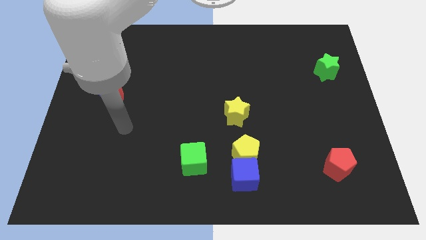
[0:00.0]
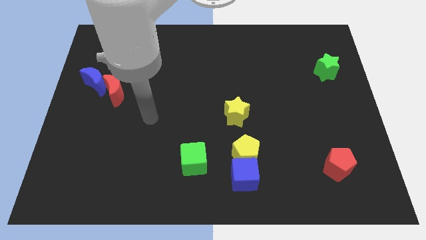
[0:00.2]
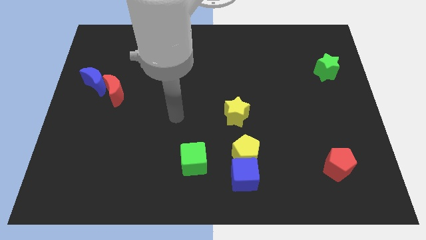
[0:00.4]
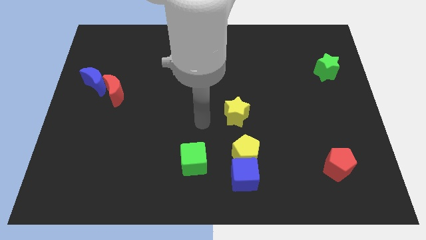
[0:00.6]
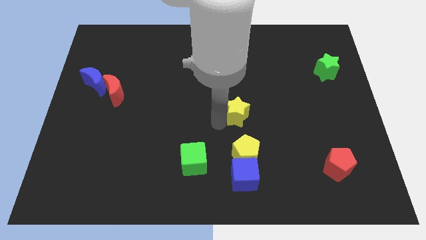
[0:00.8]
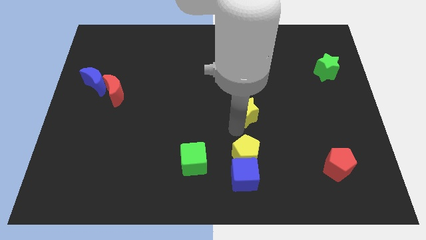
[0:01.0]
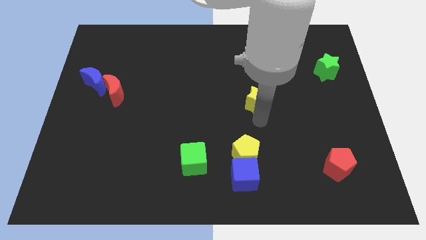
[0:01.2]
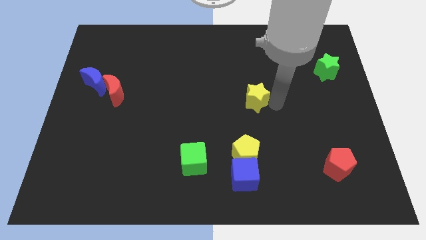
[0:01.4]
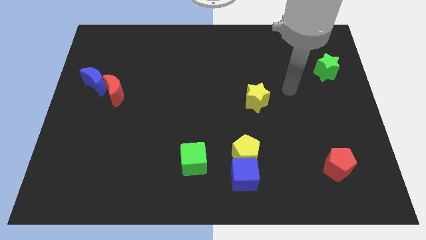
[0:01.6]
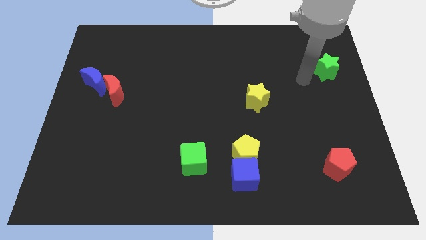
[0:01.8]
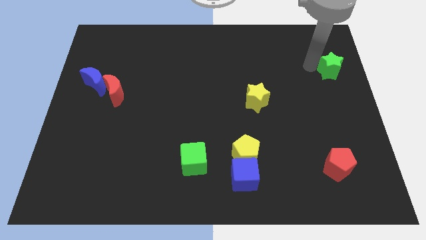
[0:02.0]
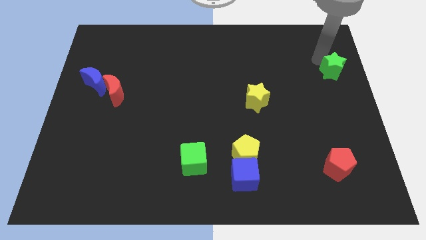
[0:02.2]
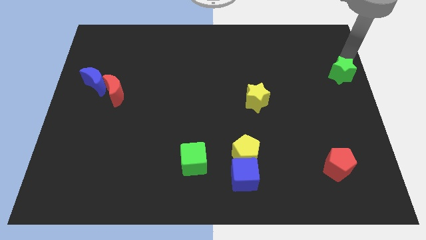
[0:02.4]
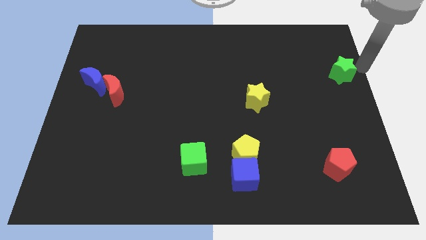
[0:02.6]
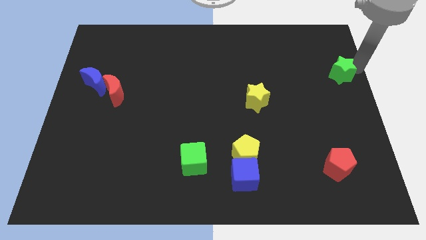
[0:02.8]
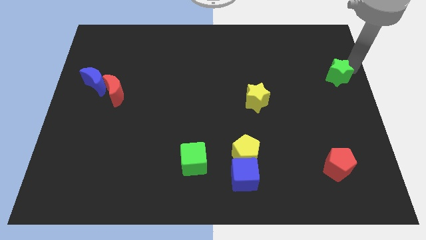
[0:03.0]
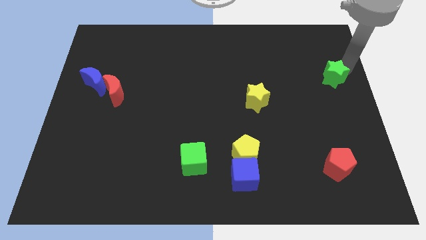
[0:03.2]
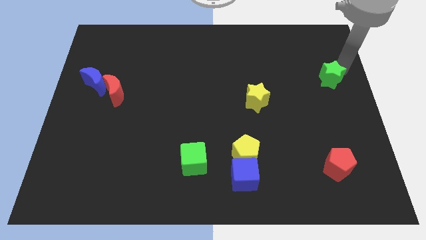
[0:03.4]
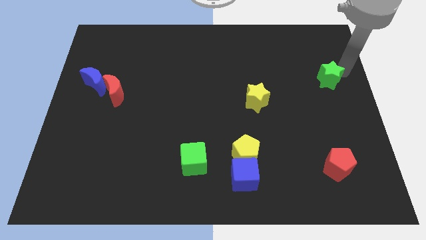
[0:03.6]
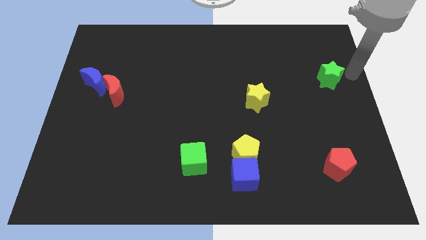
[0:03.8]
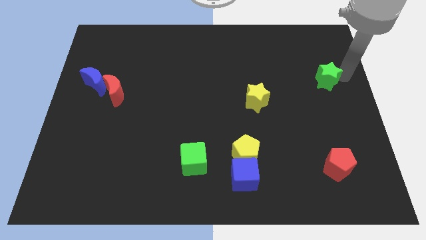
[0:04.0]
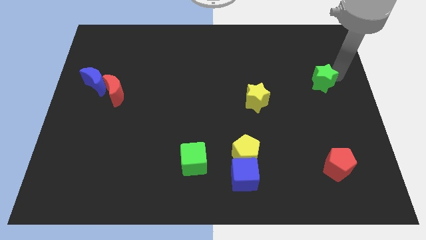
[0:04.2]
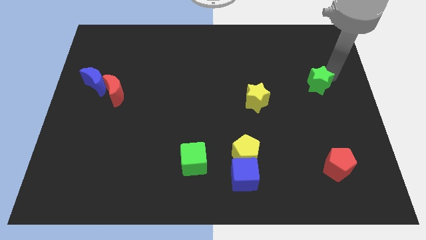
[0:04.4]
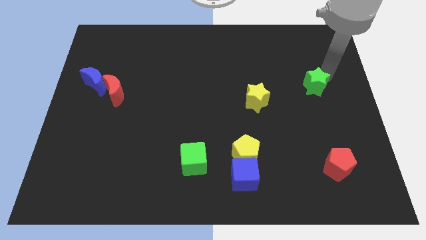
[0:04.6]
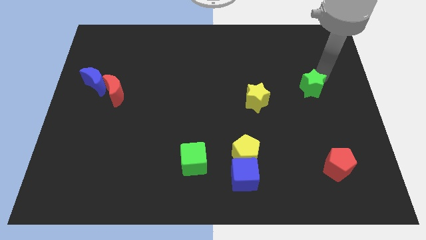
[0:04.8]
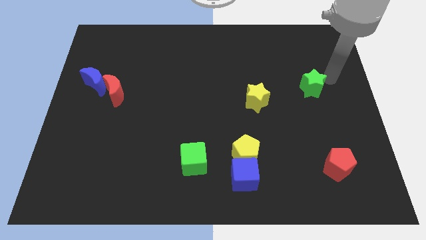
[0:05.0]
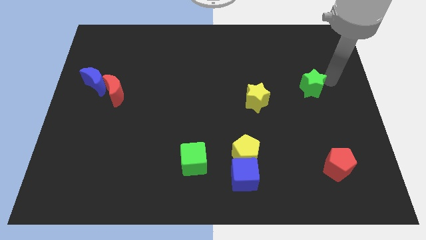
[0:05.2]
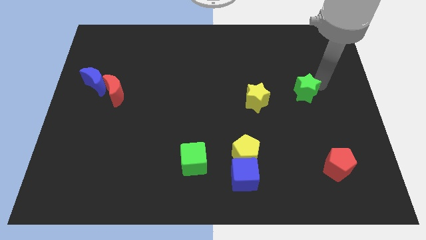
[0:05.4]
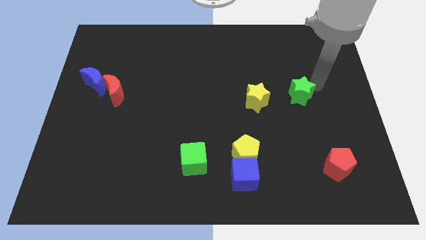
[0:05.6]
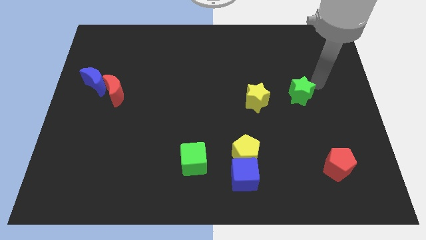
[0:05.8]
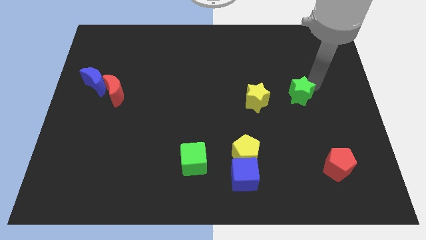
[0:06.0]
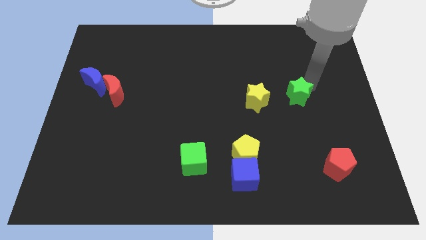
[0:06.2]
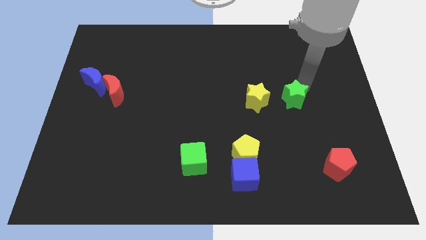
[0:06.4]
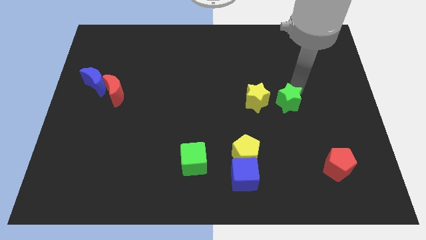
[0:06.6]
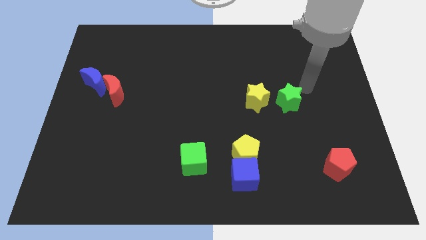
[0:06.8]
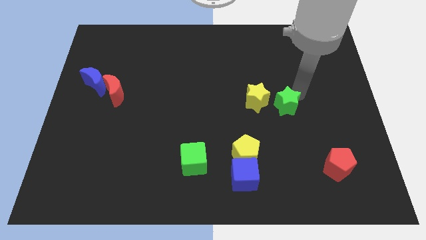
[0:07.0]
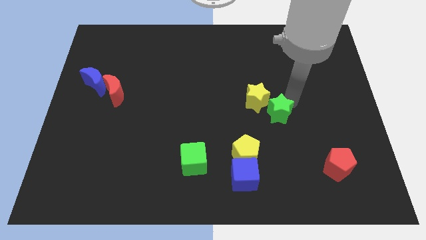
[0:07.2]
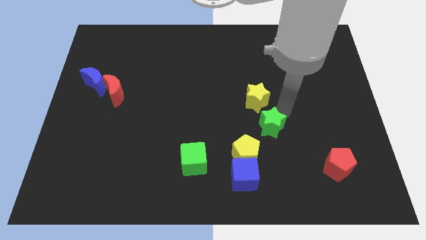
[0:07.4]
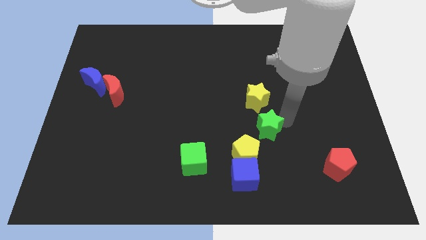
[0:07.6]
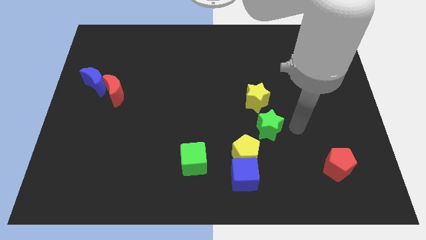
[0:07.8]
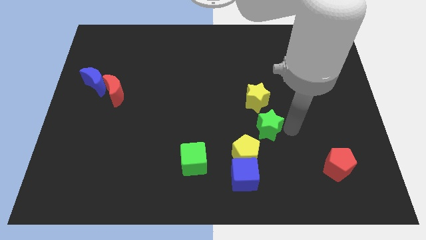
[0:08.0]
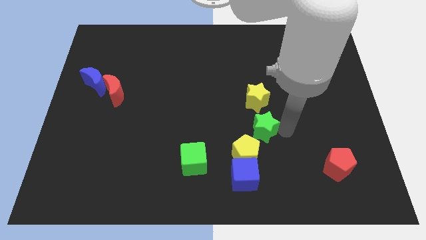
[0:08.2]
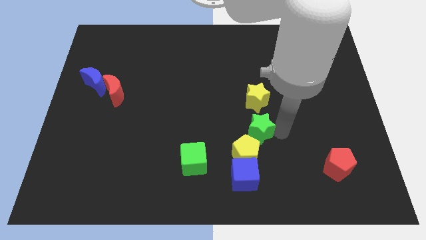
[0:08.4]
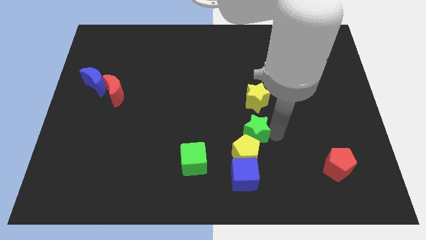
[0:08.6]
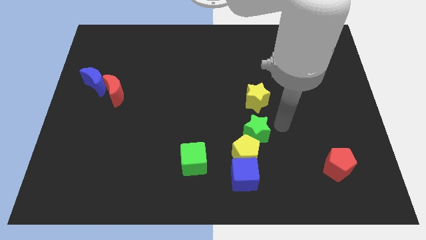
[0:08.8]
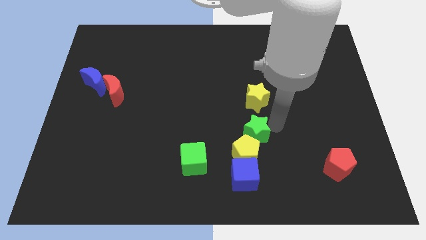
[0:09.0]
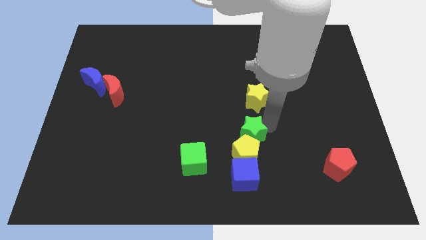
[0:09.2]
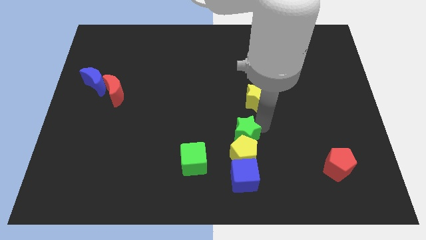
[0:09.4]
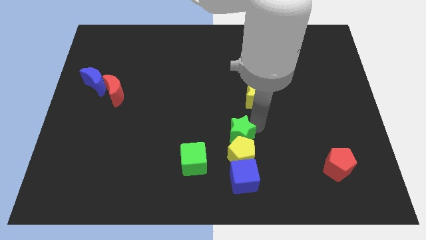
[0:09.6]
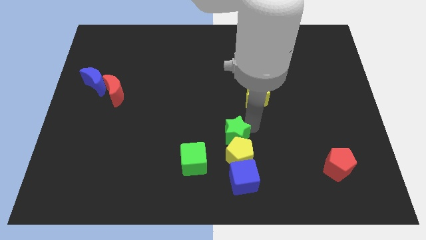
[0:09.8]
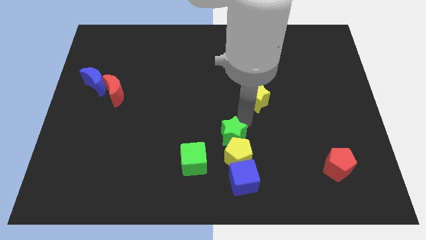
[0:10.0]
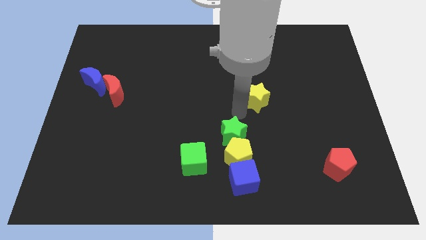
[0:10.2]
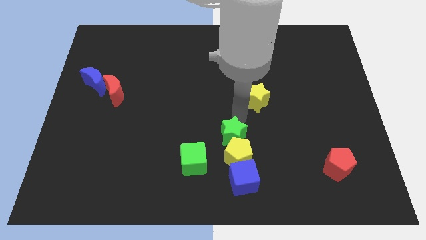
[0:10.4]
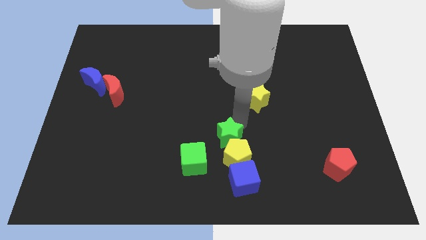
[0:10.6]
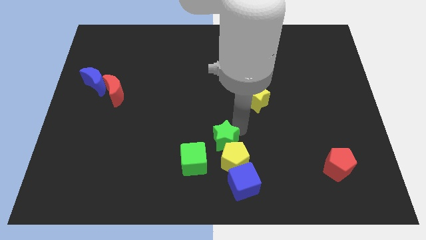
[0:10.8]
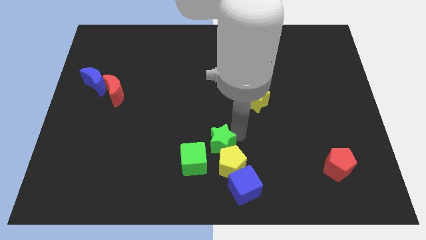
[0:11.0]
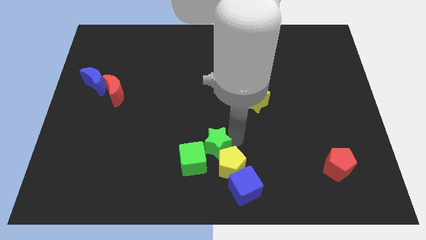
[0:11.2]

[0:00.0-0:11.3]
push the green star to the green cube
